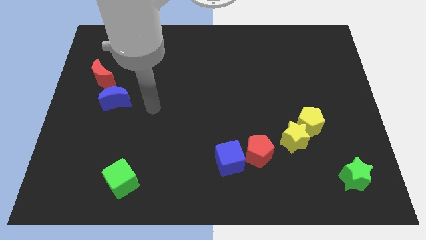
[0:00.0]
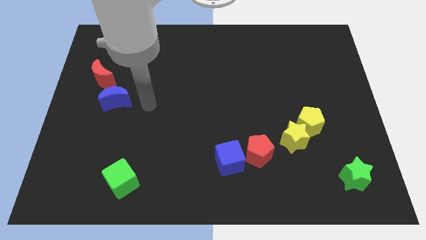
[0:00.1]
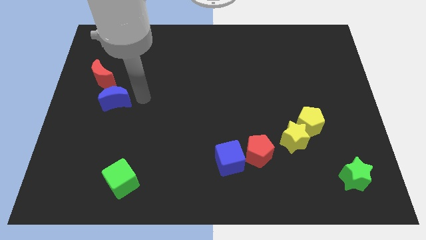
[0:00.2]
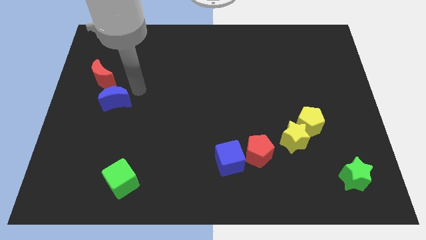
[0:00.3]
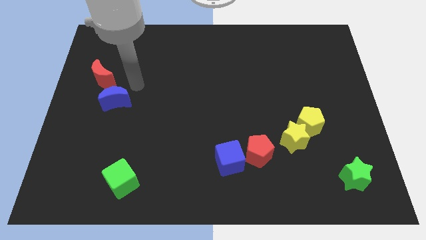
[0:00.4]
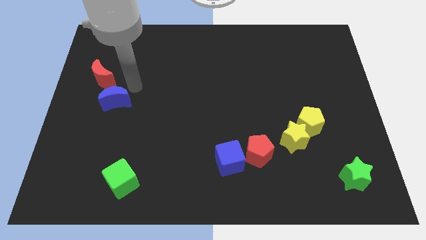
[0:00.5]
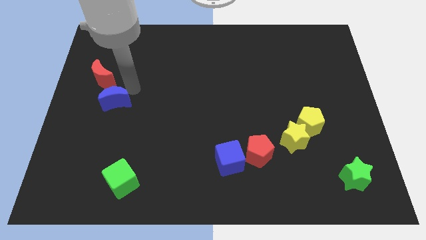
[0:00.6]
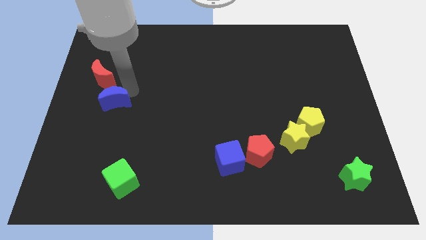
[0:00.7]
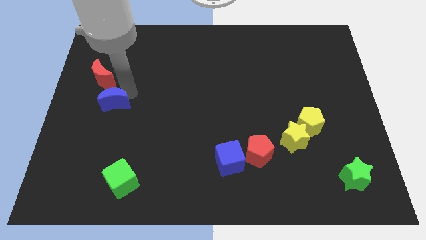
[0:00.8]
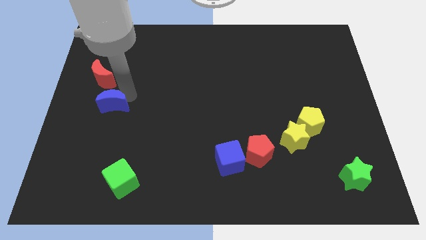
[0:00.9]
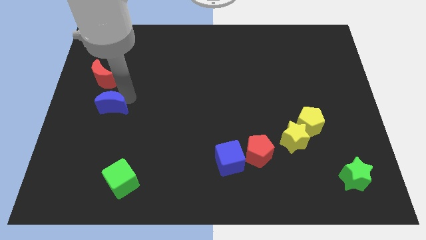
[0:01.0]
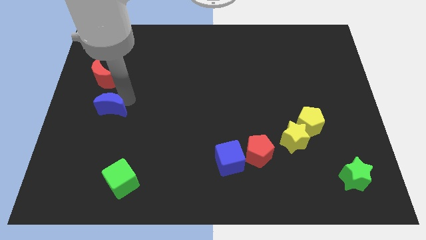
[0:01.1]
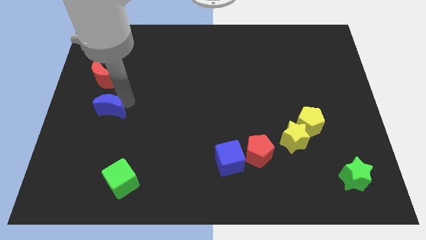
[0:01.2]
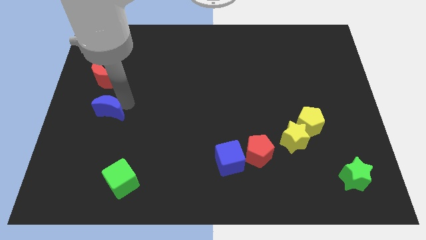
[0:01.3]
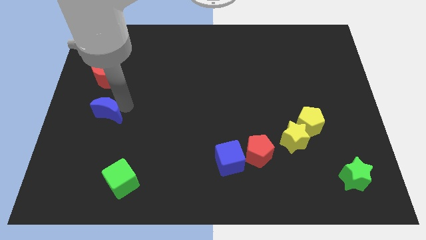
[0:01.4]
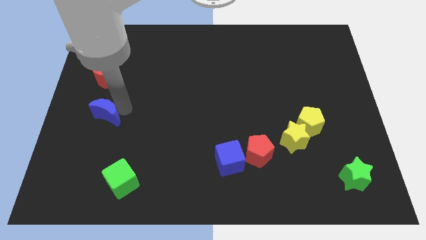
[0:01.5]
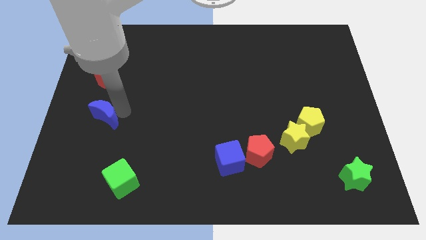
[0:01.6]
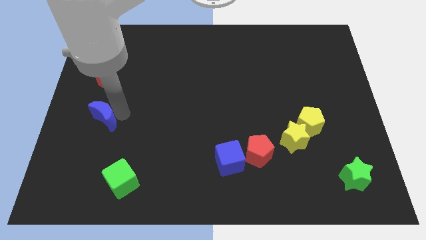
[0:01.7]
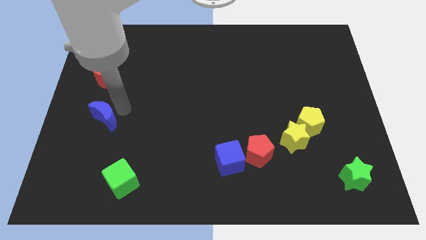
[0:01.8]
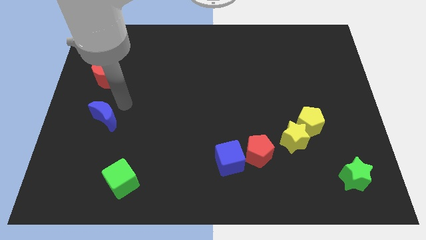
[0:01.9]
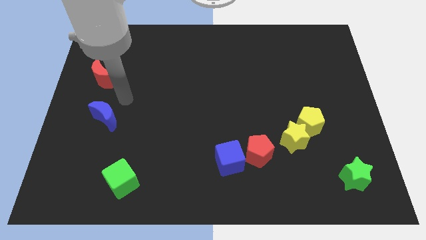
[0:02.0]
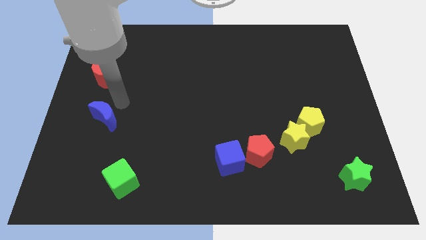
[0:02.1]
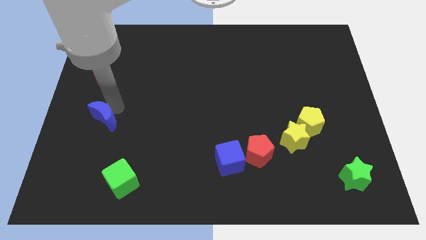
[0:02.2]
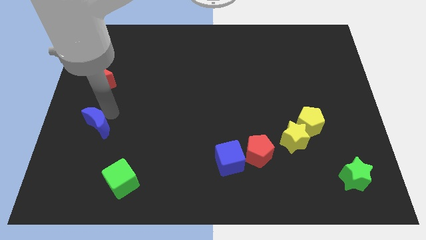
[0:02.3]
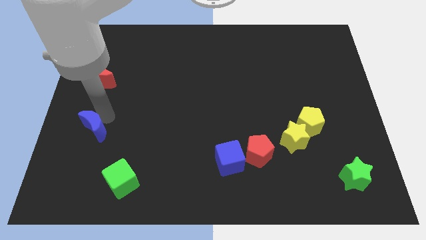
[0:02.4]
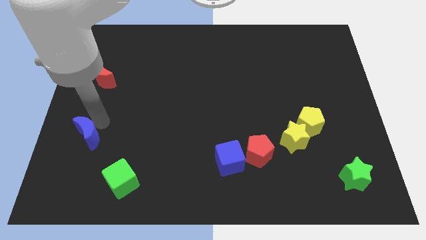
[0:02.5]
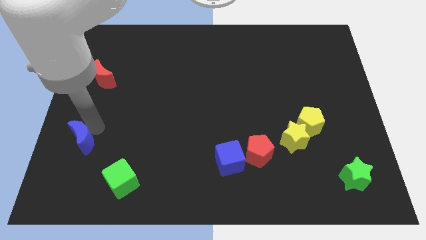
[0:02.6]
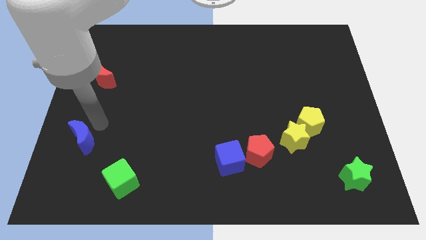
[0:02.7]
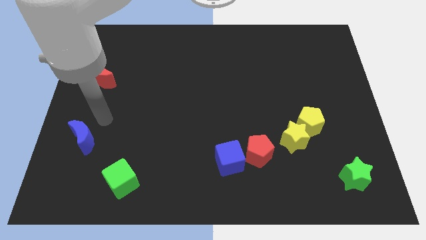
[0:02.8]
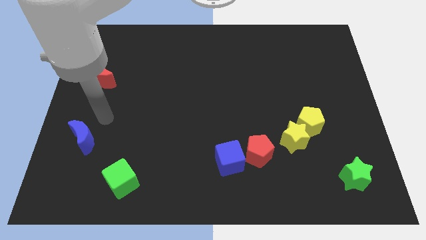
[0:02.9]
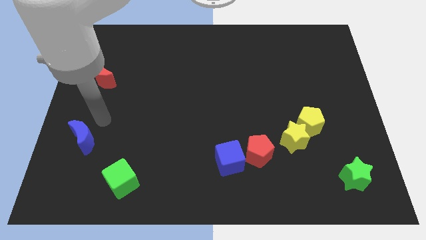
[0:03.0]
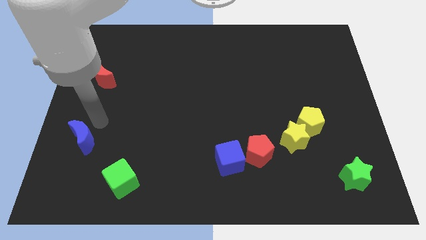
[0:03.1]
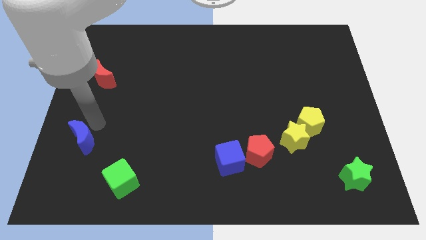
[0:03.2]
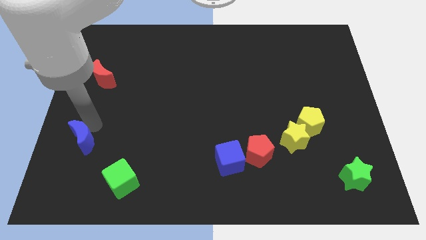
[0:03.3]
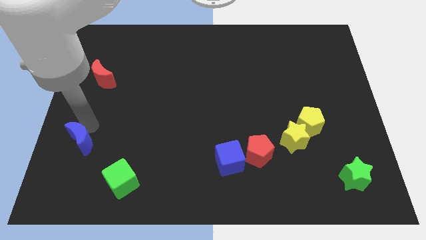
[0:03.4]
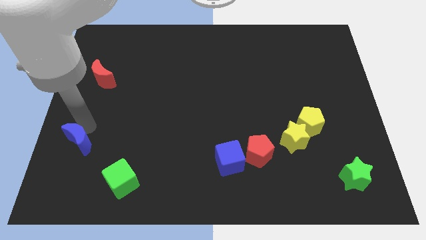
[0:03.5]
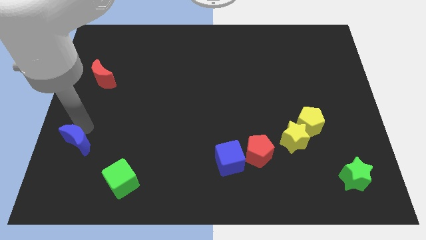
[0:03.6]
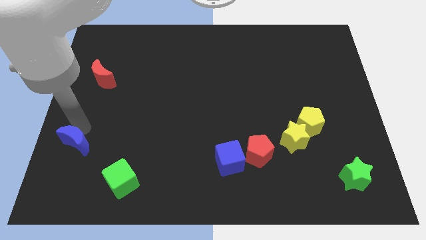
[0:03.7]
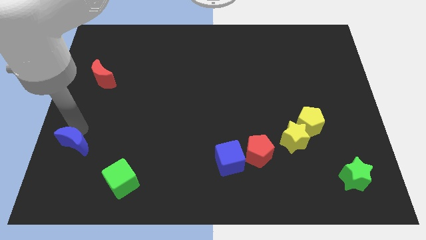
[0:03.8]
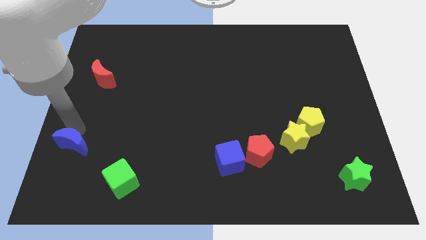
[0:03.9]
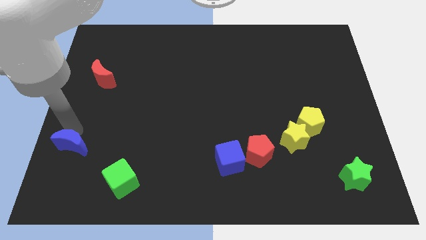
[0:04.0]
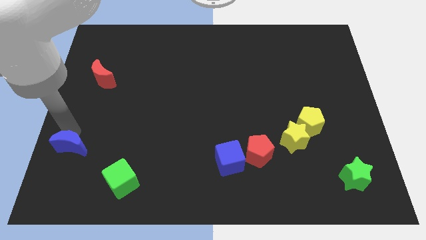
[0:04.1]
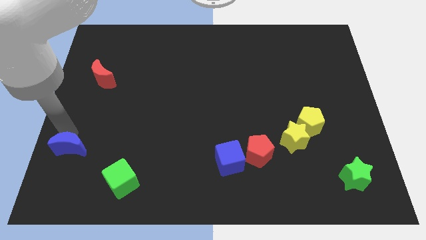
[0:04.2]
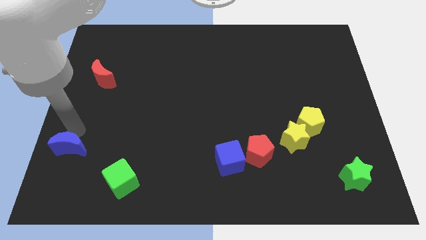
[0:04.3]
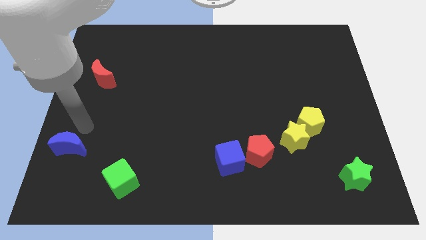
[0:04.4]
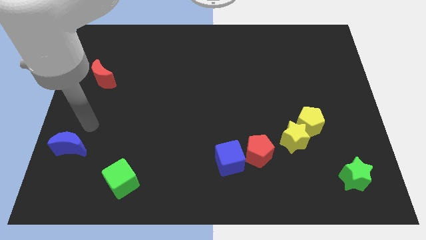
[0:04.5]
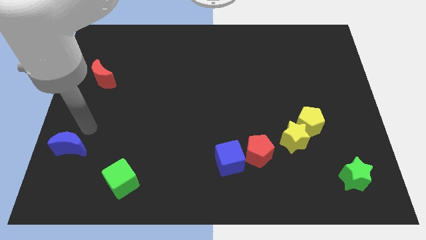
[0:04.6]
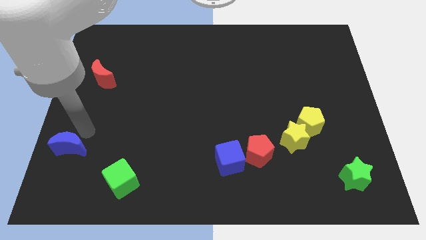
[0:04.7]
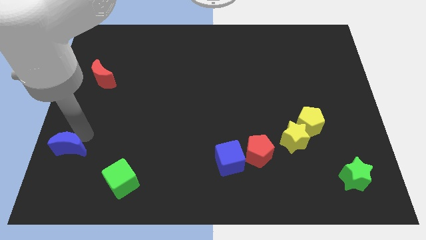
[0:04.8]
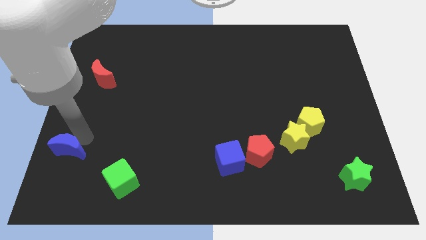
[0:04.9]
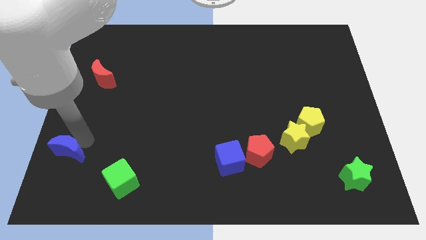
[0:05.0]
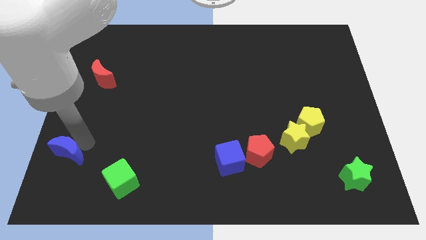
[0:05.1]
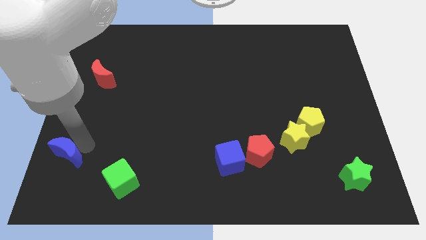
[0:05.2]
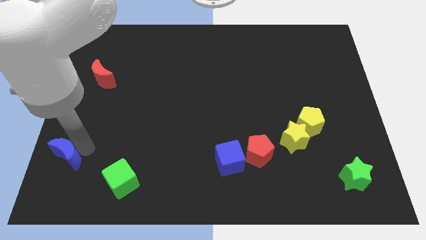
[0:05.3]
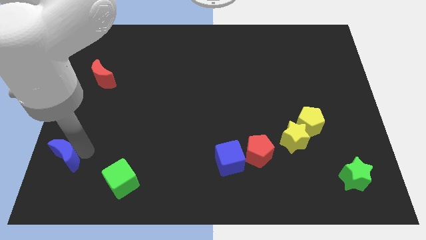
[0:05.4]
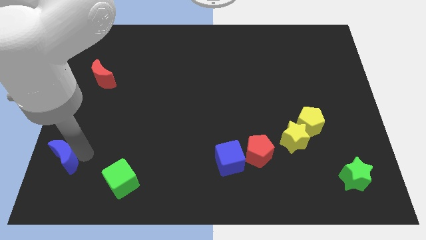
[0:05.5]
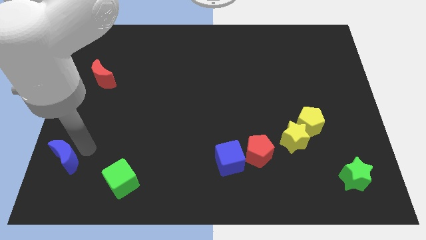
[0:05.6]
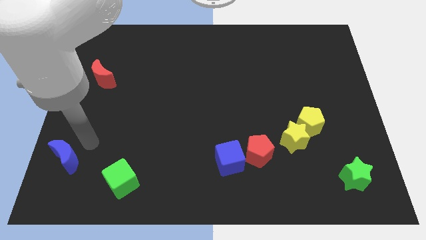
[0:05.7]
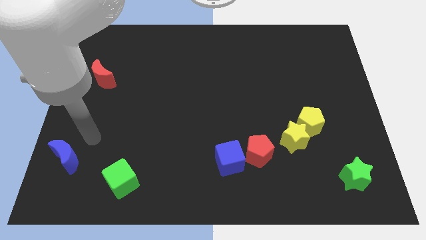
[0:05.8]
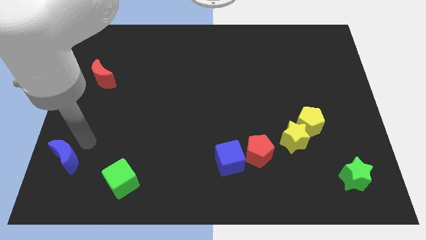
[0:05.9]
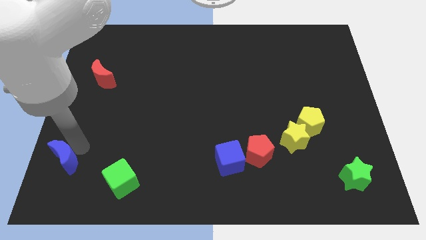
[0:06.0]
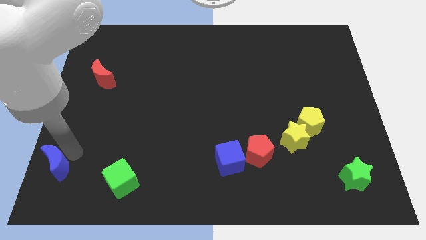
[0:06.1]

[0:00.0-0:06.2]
put the blue moon to the bottom left
